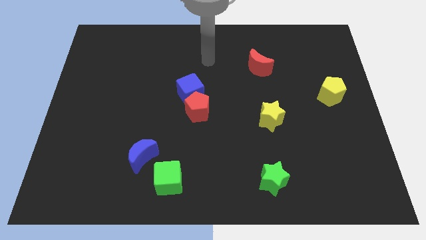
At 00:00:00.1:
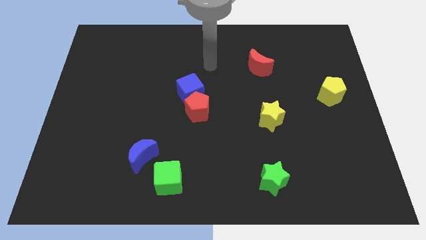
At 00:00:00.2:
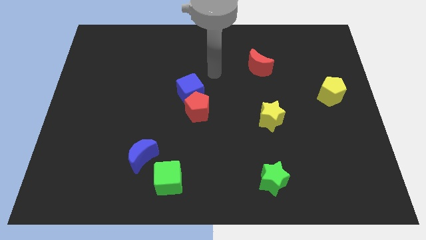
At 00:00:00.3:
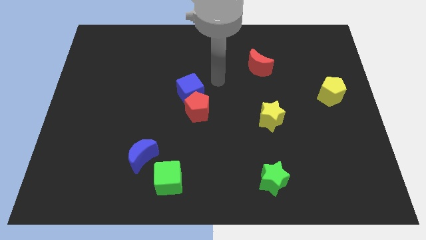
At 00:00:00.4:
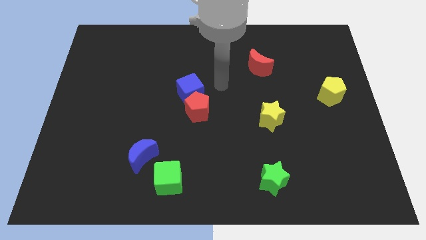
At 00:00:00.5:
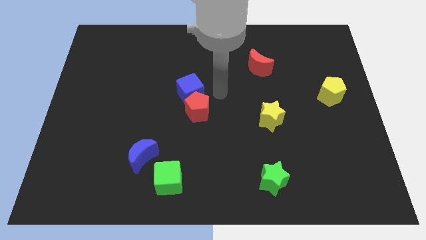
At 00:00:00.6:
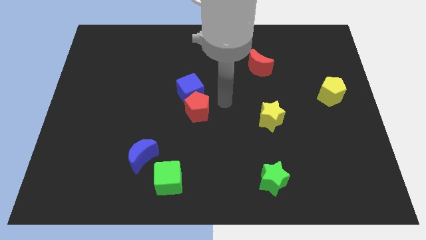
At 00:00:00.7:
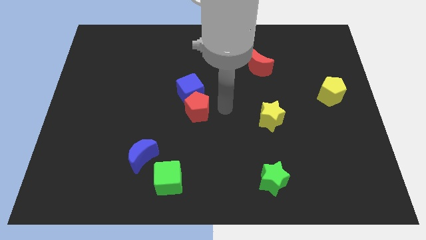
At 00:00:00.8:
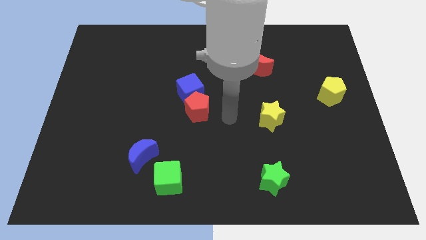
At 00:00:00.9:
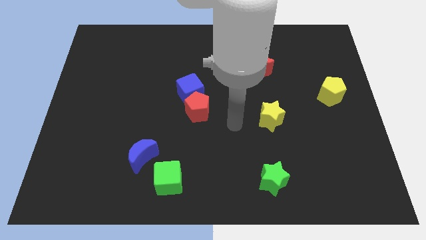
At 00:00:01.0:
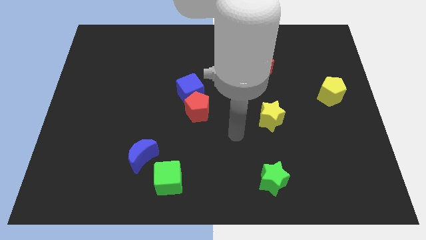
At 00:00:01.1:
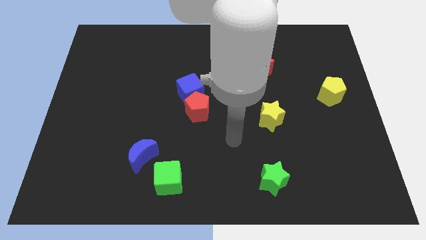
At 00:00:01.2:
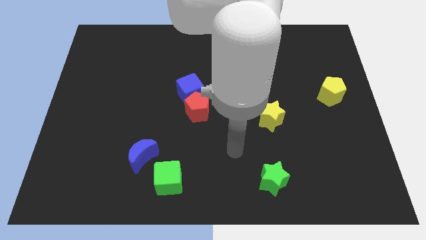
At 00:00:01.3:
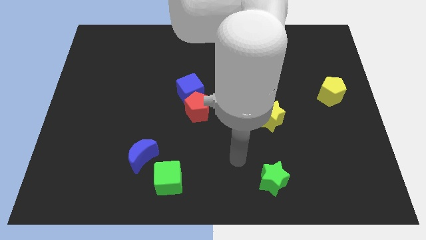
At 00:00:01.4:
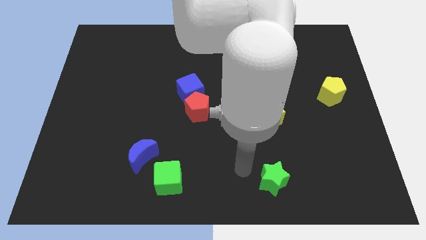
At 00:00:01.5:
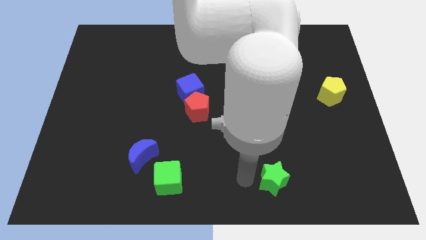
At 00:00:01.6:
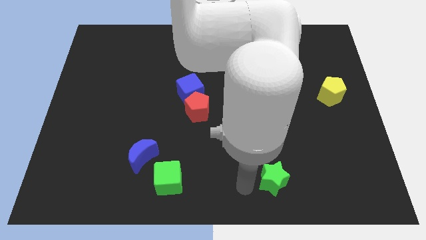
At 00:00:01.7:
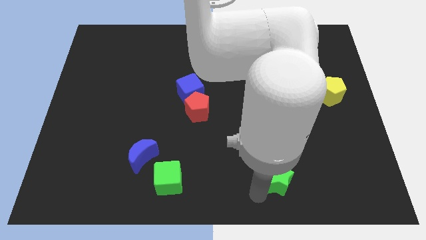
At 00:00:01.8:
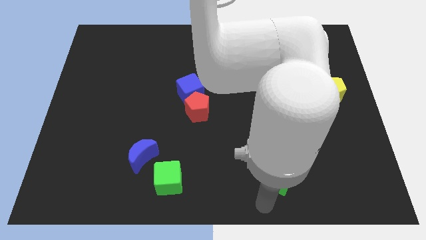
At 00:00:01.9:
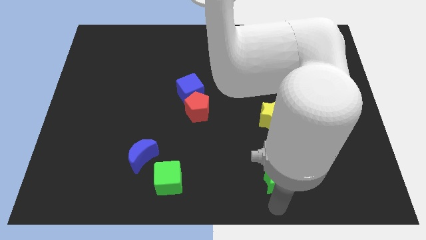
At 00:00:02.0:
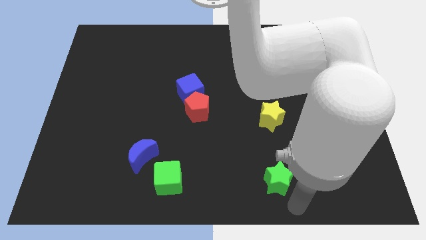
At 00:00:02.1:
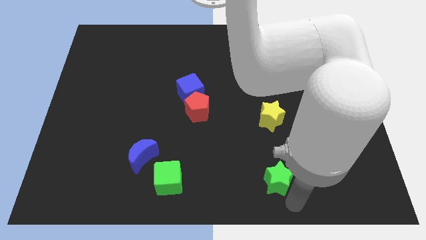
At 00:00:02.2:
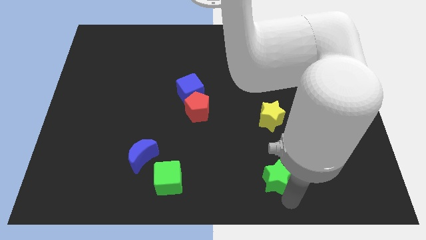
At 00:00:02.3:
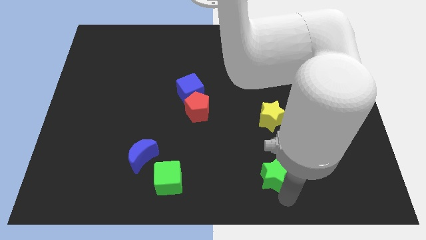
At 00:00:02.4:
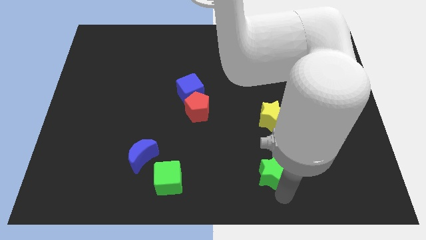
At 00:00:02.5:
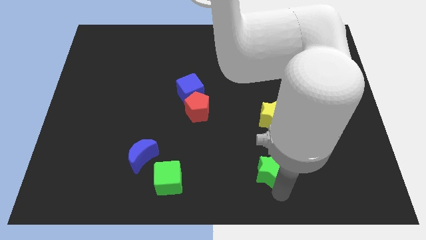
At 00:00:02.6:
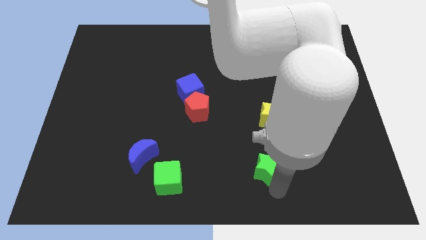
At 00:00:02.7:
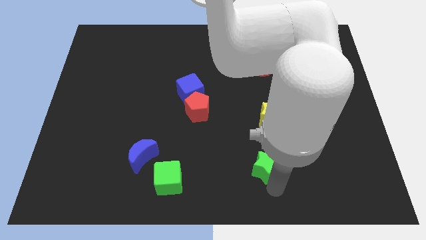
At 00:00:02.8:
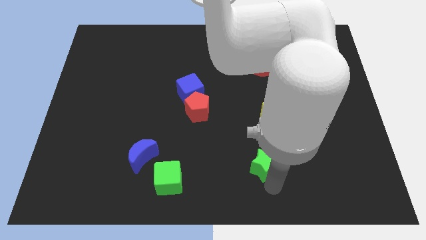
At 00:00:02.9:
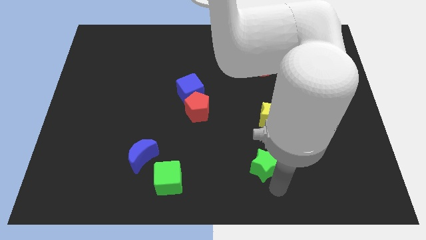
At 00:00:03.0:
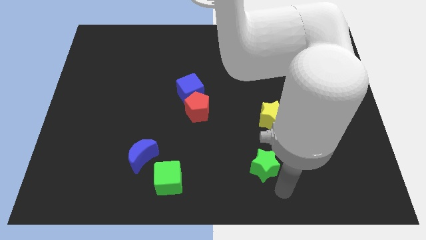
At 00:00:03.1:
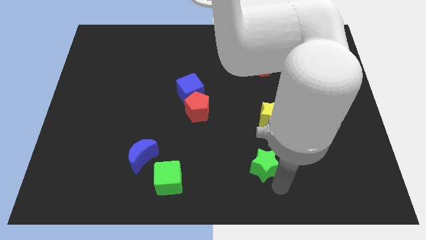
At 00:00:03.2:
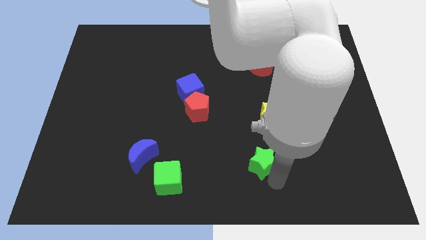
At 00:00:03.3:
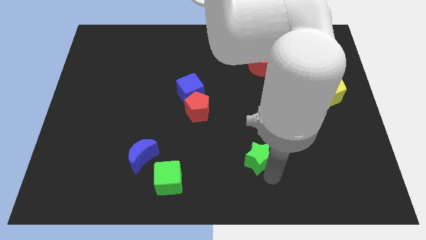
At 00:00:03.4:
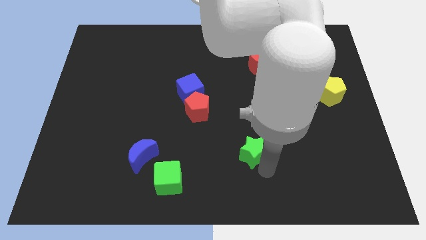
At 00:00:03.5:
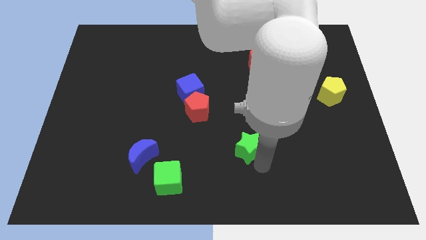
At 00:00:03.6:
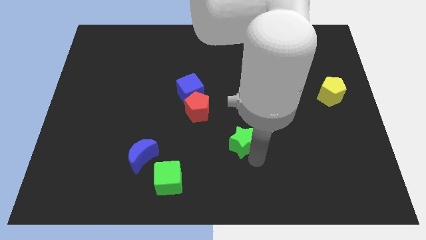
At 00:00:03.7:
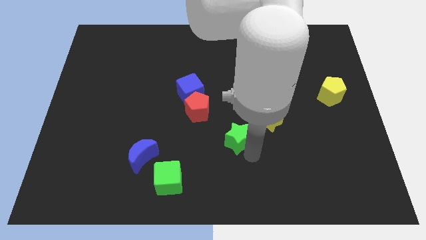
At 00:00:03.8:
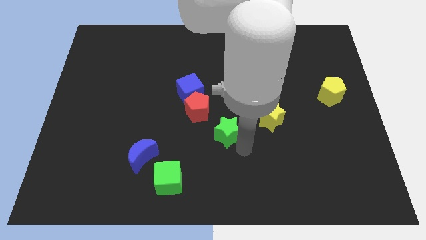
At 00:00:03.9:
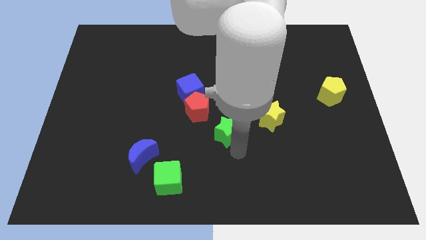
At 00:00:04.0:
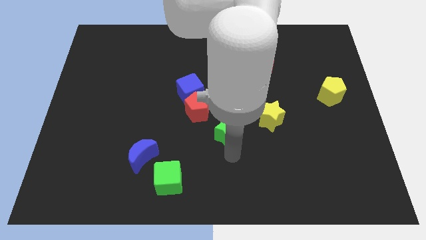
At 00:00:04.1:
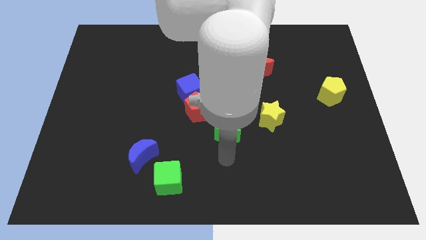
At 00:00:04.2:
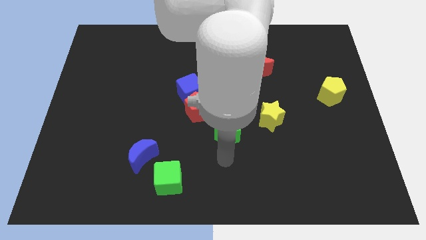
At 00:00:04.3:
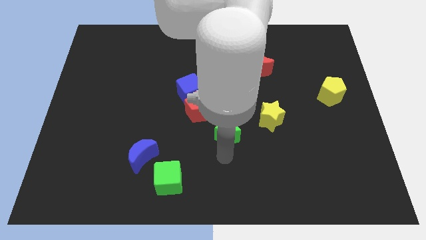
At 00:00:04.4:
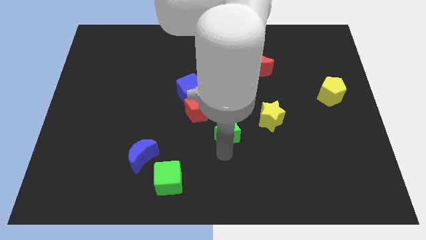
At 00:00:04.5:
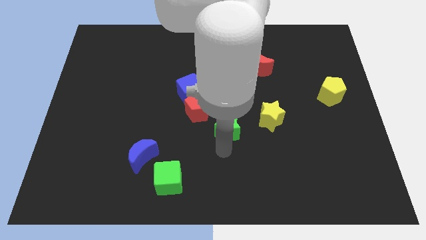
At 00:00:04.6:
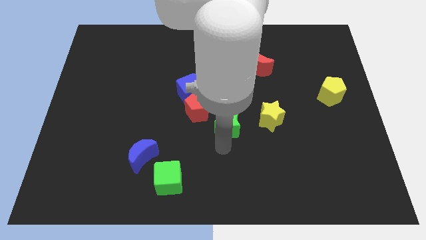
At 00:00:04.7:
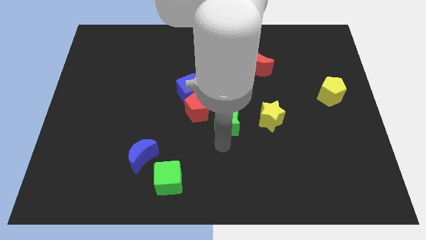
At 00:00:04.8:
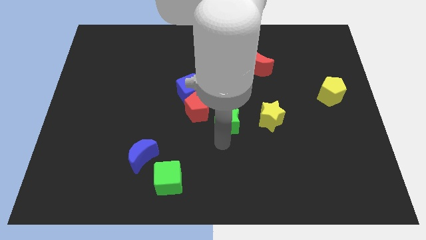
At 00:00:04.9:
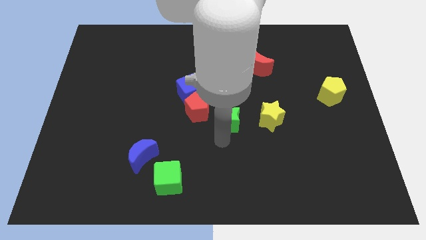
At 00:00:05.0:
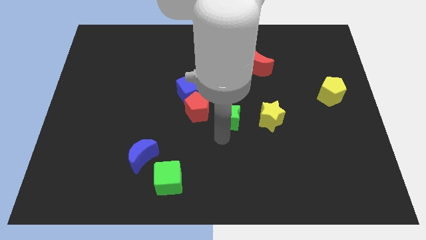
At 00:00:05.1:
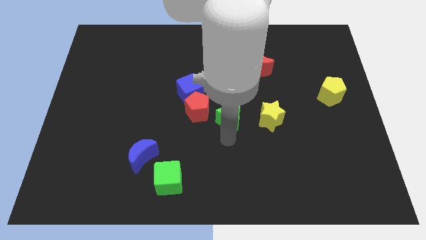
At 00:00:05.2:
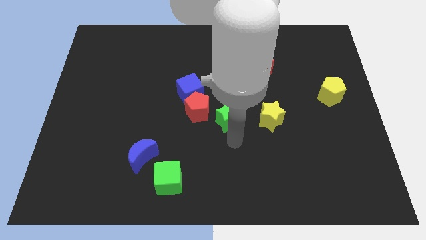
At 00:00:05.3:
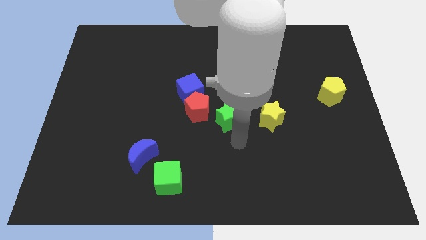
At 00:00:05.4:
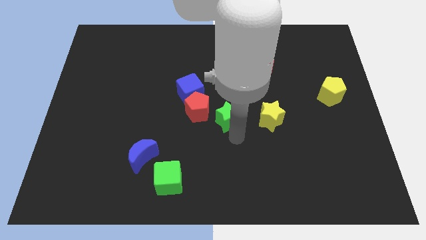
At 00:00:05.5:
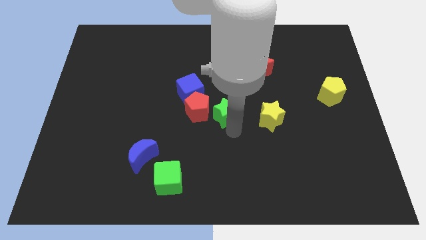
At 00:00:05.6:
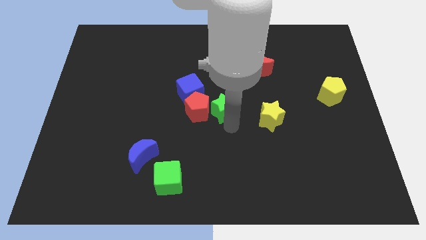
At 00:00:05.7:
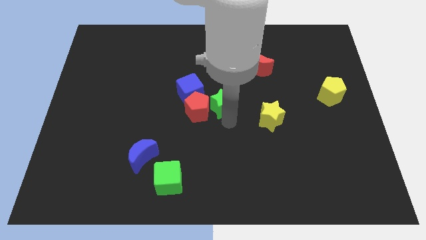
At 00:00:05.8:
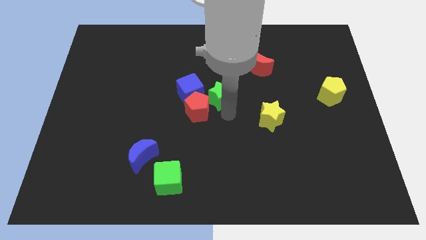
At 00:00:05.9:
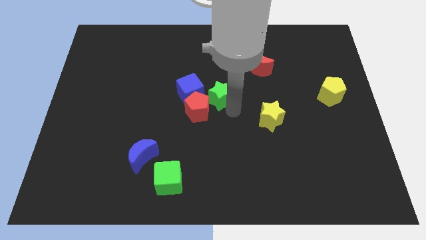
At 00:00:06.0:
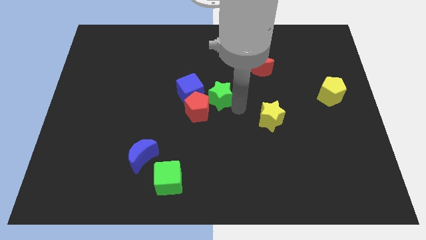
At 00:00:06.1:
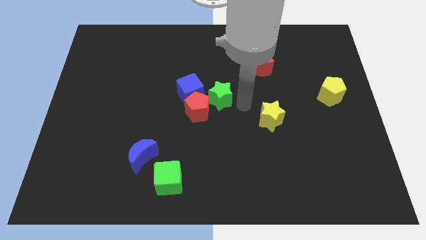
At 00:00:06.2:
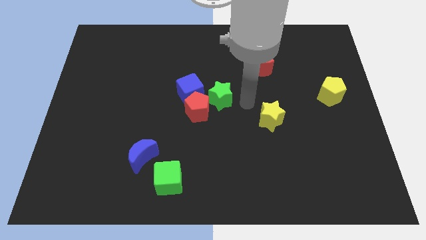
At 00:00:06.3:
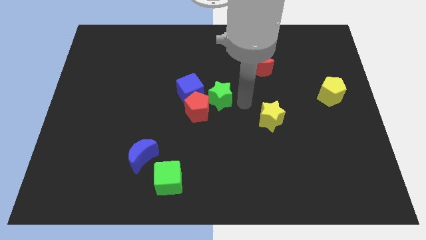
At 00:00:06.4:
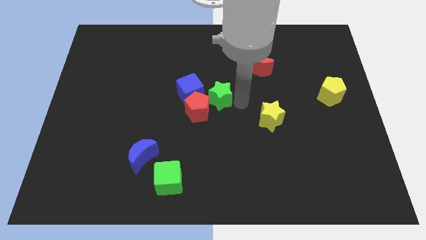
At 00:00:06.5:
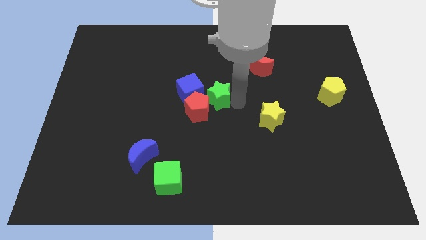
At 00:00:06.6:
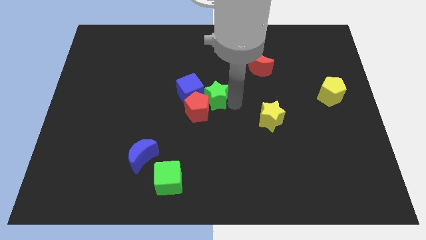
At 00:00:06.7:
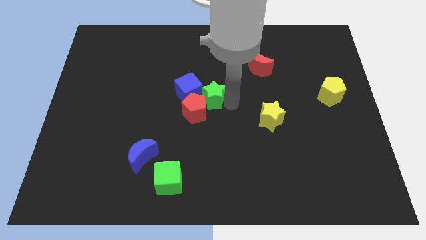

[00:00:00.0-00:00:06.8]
move the green star towards the blue cube
